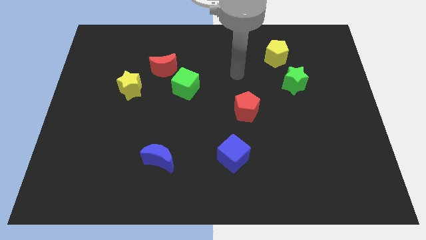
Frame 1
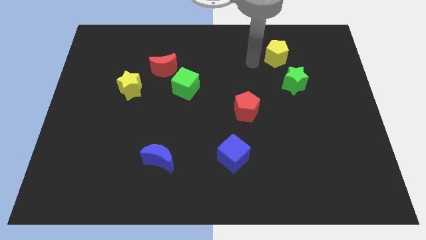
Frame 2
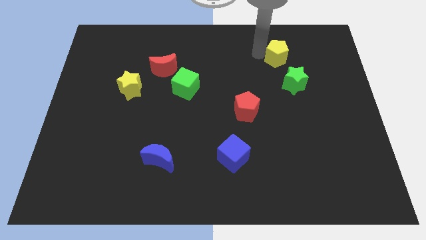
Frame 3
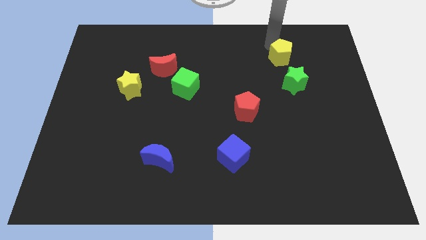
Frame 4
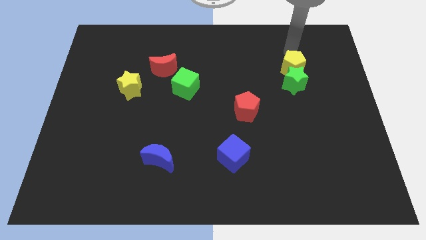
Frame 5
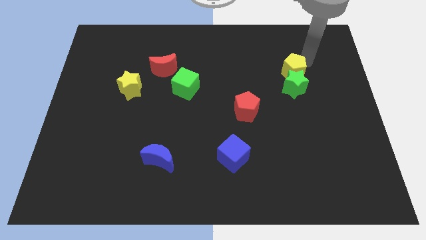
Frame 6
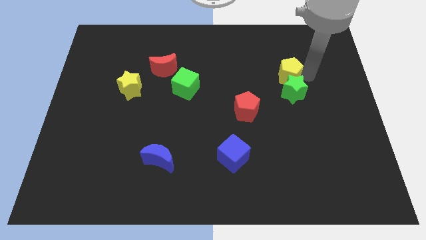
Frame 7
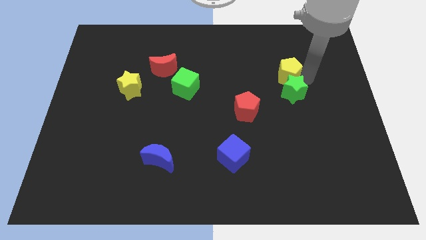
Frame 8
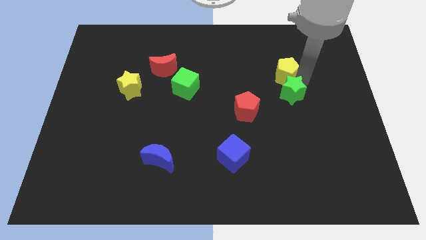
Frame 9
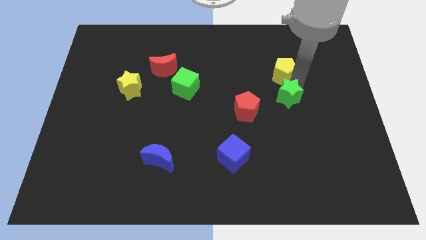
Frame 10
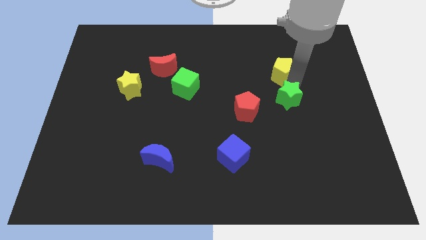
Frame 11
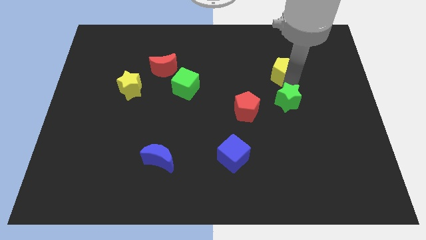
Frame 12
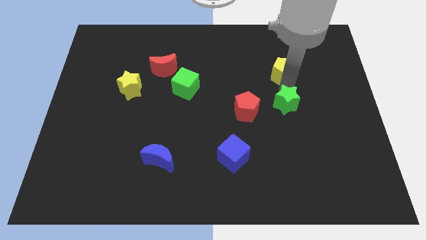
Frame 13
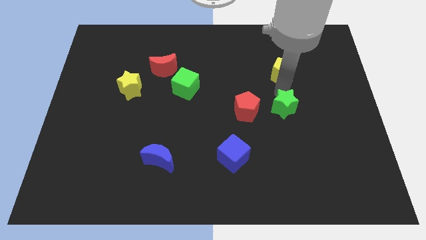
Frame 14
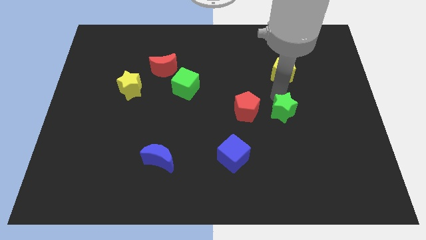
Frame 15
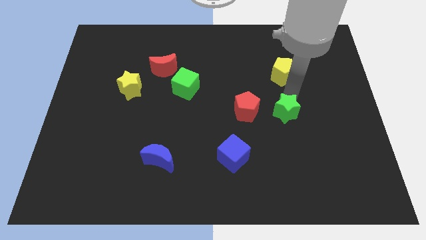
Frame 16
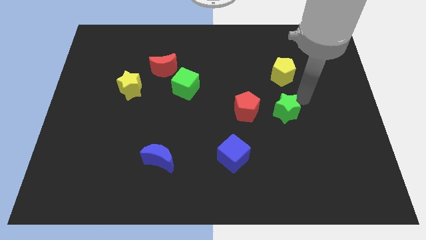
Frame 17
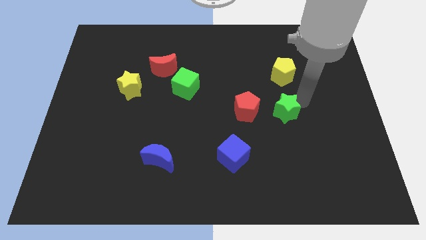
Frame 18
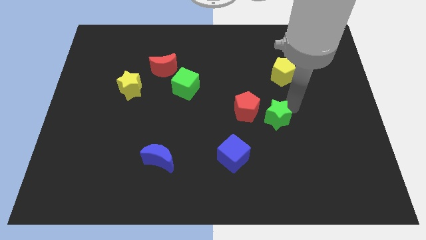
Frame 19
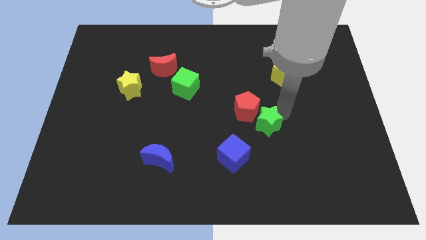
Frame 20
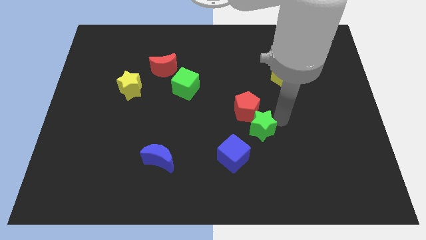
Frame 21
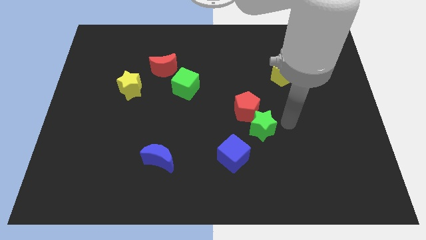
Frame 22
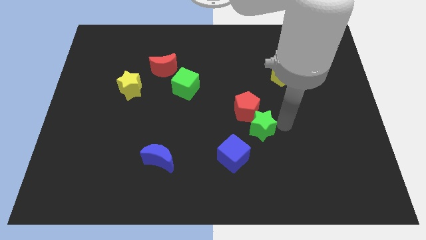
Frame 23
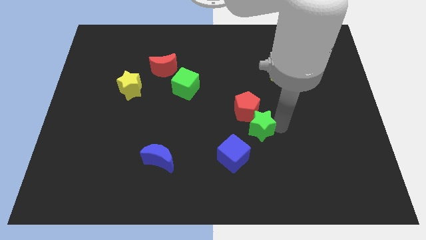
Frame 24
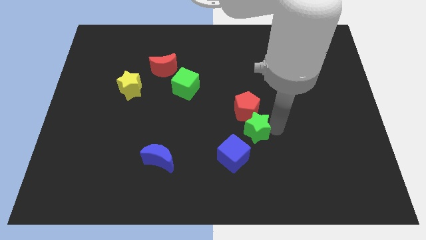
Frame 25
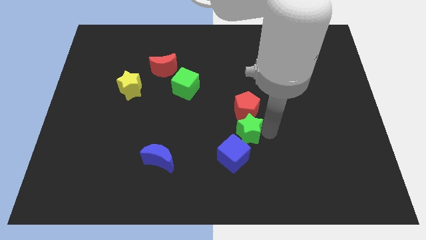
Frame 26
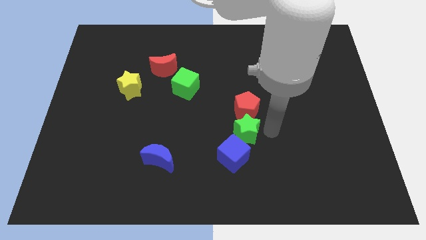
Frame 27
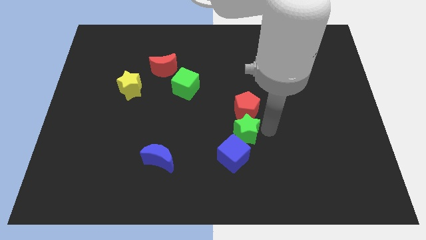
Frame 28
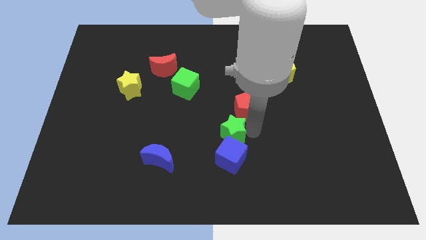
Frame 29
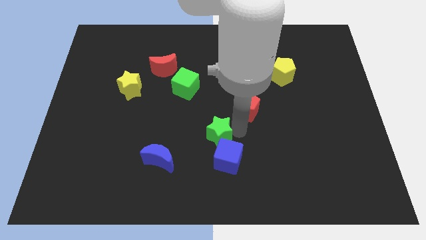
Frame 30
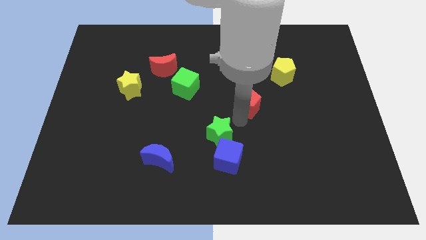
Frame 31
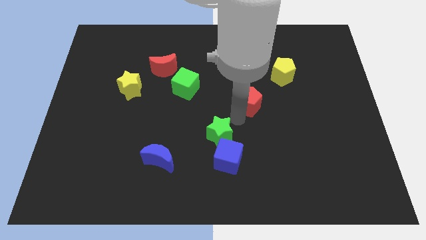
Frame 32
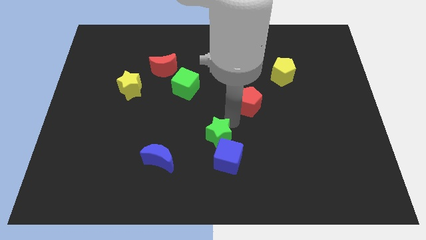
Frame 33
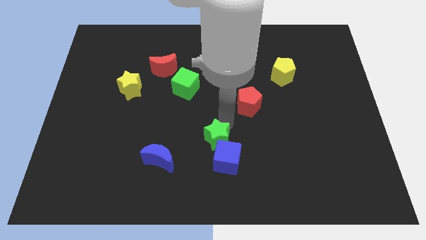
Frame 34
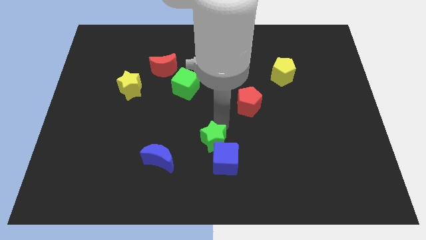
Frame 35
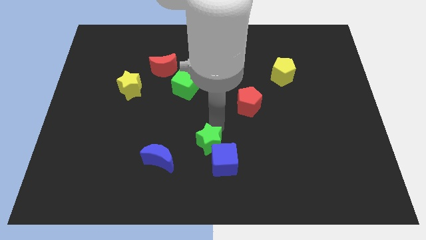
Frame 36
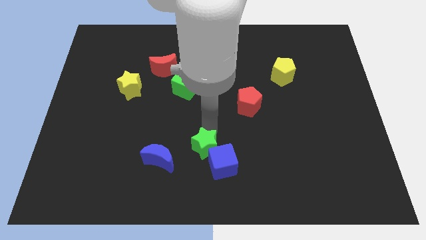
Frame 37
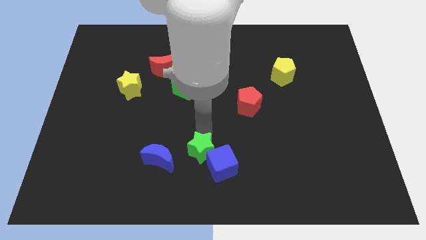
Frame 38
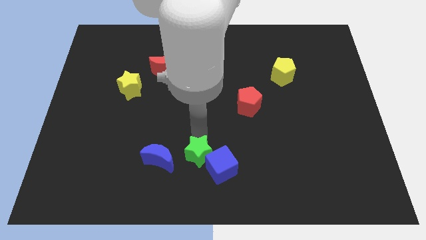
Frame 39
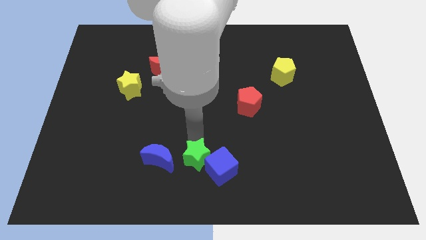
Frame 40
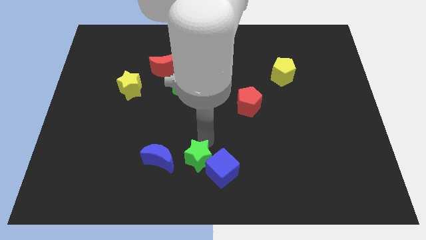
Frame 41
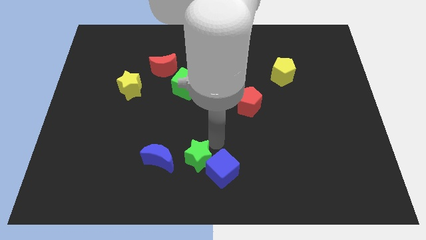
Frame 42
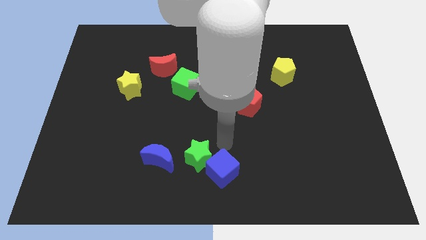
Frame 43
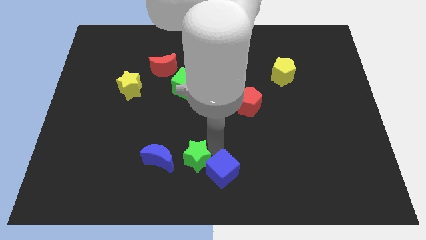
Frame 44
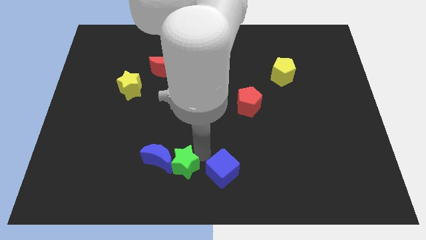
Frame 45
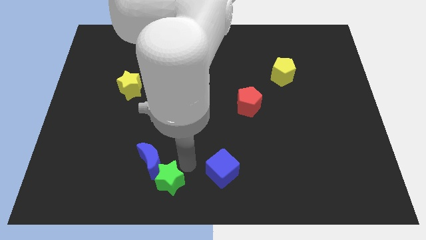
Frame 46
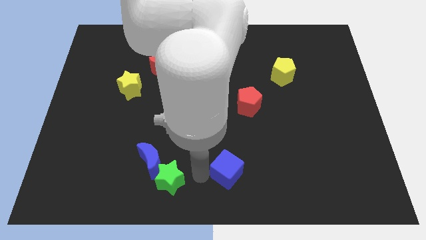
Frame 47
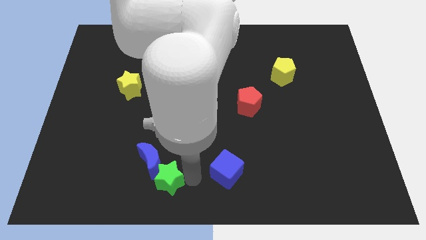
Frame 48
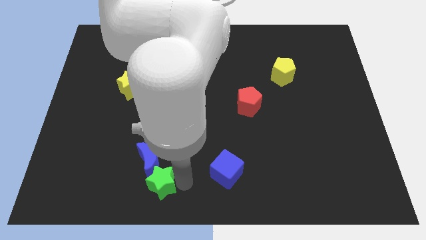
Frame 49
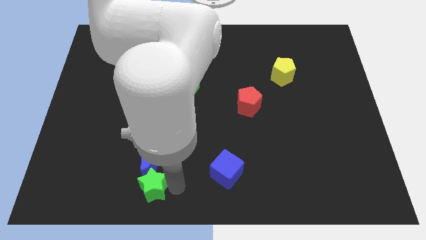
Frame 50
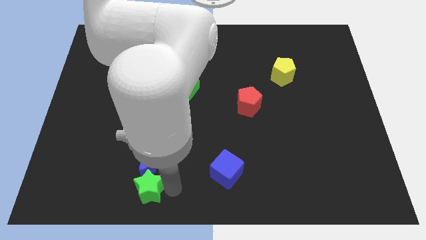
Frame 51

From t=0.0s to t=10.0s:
push the green star diagonally down and to the left of the blue moon

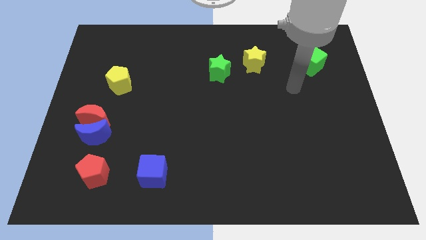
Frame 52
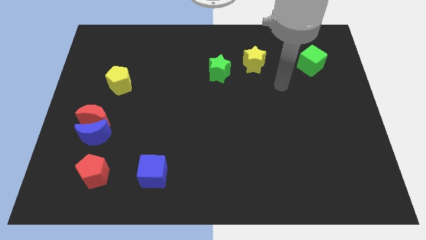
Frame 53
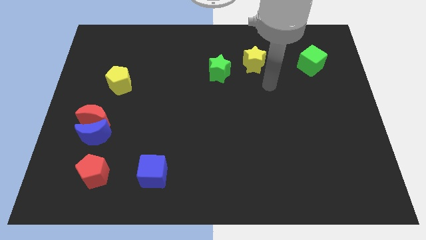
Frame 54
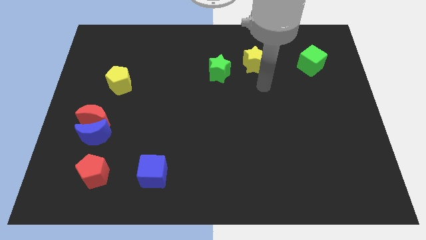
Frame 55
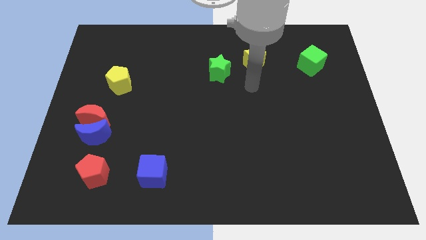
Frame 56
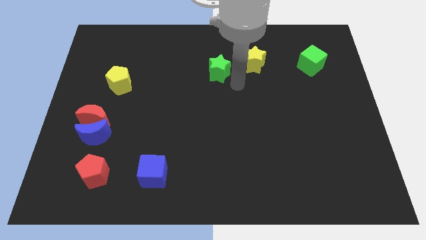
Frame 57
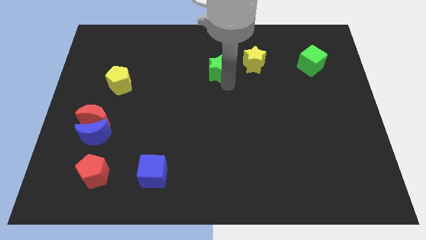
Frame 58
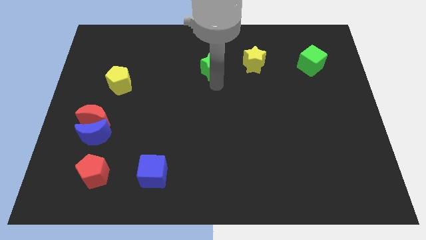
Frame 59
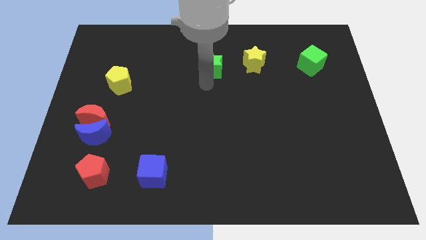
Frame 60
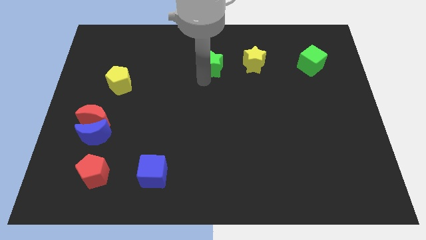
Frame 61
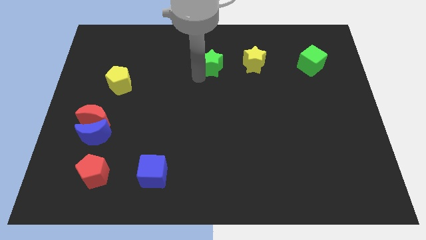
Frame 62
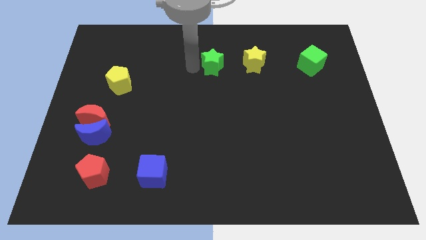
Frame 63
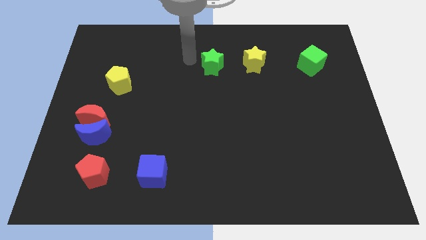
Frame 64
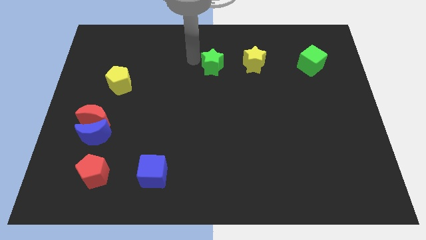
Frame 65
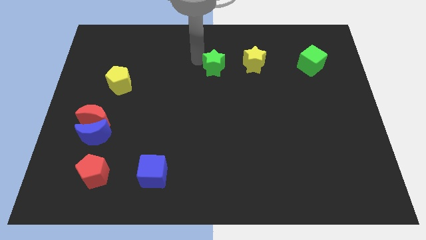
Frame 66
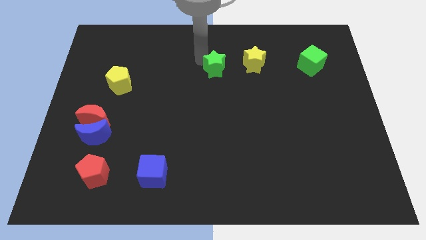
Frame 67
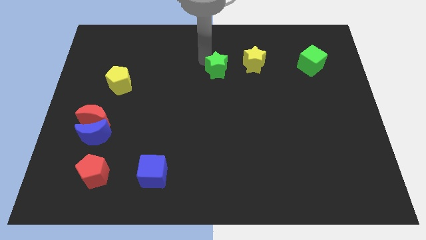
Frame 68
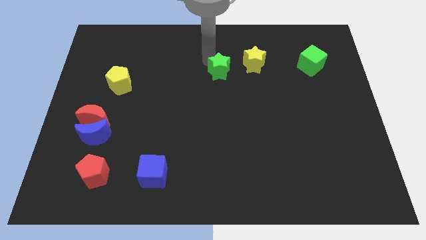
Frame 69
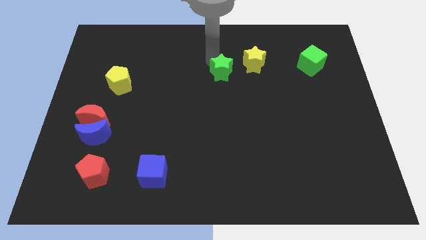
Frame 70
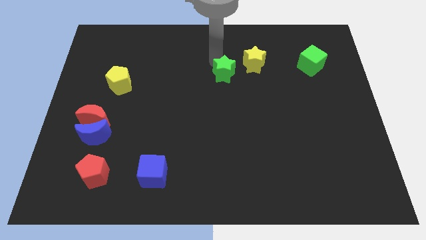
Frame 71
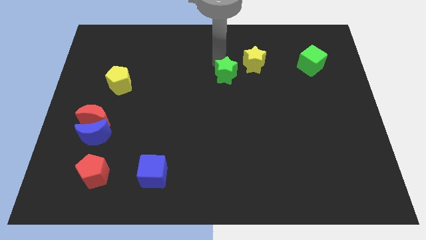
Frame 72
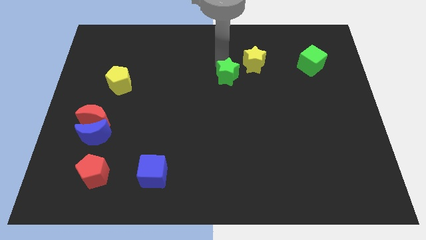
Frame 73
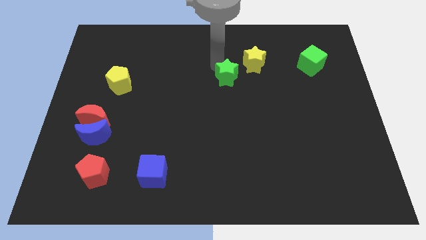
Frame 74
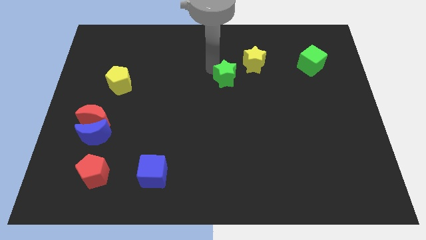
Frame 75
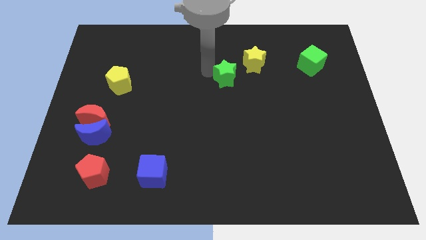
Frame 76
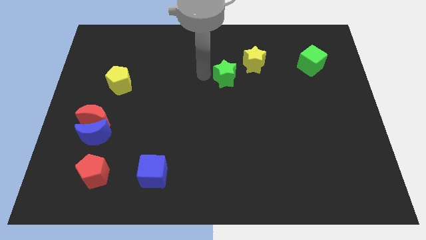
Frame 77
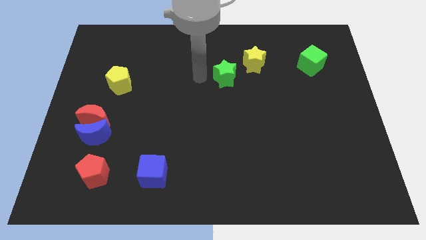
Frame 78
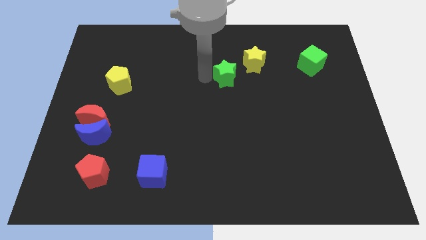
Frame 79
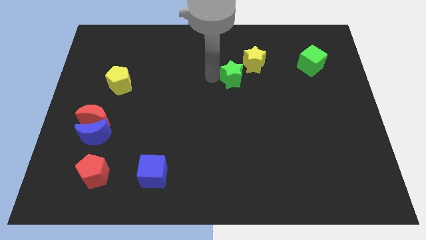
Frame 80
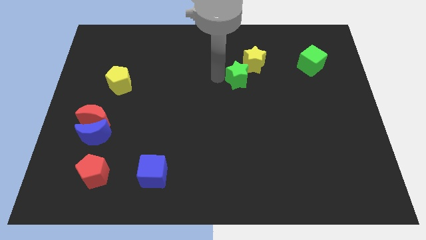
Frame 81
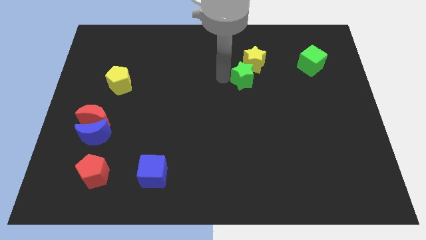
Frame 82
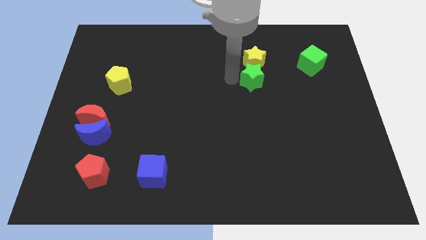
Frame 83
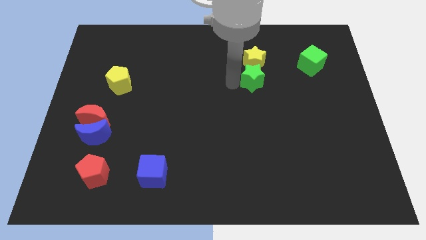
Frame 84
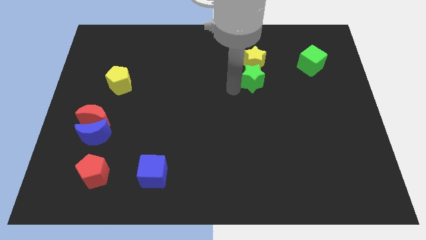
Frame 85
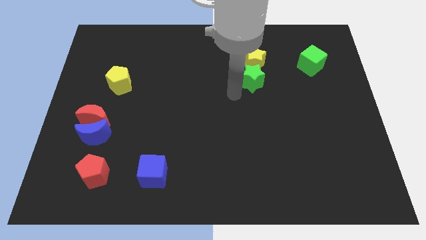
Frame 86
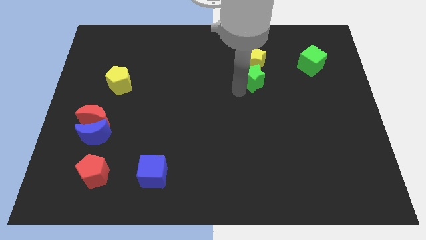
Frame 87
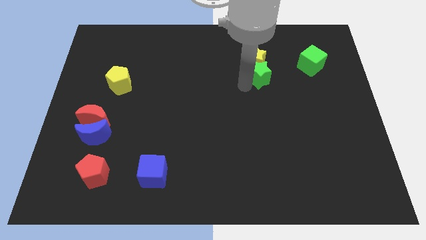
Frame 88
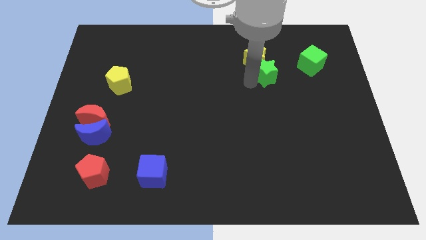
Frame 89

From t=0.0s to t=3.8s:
push the green star left of the green cube
